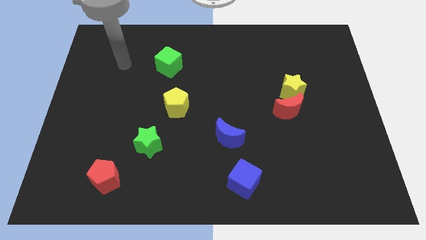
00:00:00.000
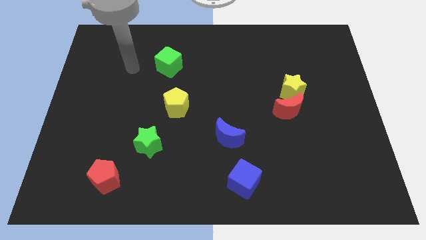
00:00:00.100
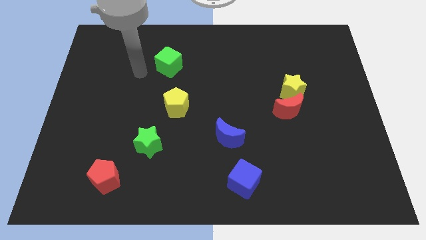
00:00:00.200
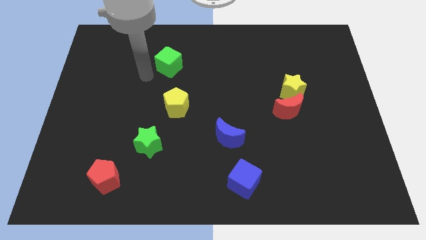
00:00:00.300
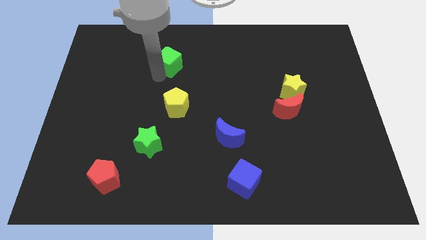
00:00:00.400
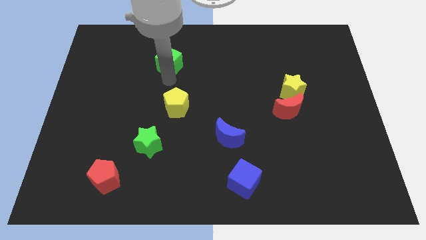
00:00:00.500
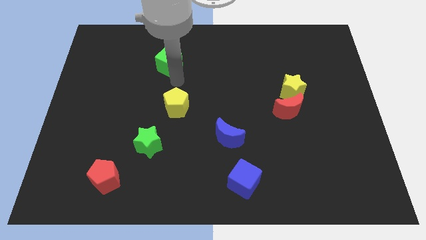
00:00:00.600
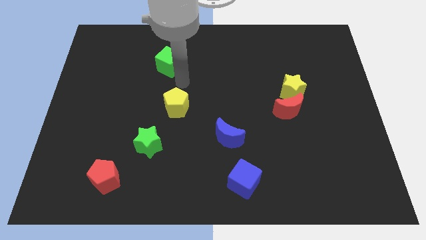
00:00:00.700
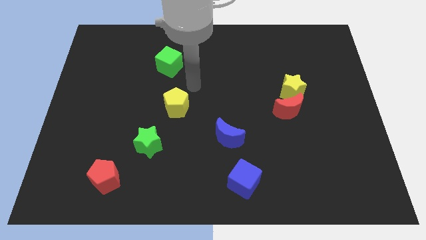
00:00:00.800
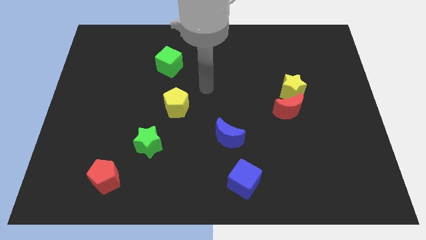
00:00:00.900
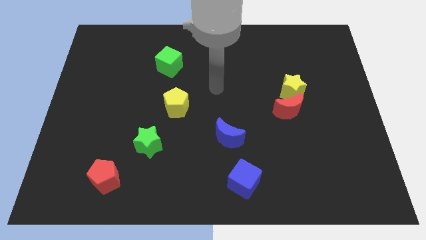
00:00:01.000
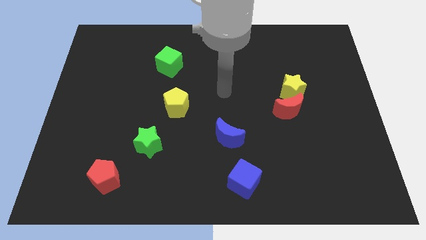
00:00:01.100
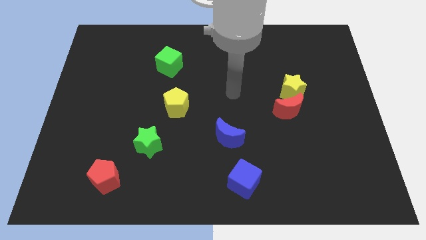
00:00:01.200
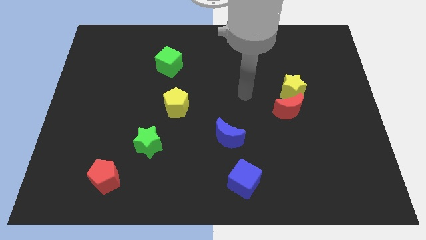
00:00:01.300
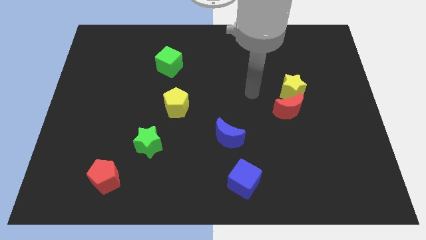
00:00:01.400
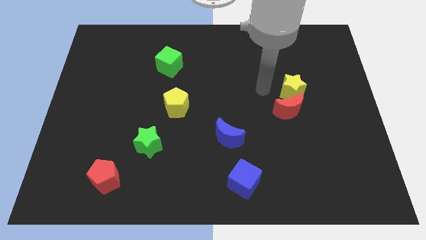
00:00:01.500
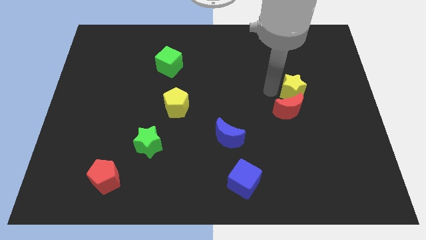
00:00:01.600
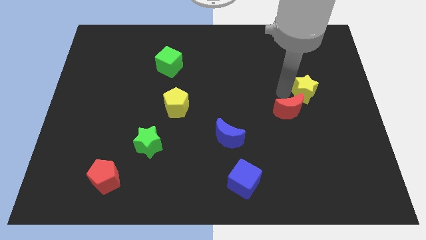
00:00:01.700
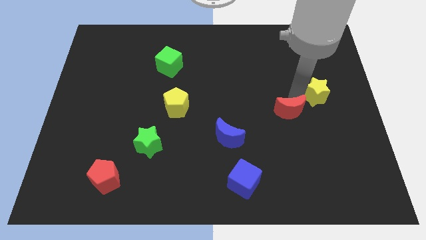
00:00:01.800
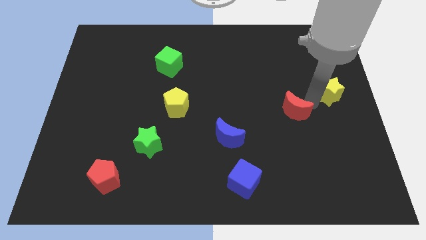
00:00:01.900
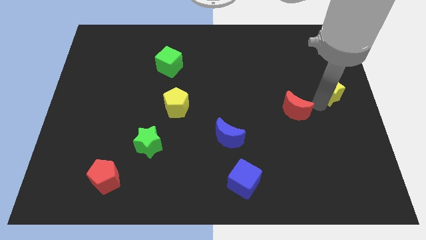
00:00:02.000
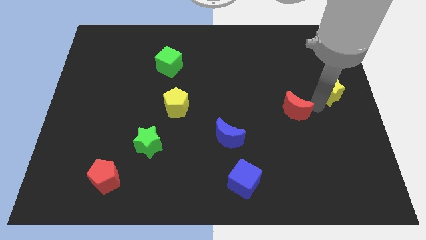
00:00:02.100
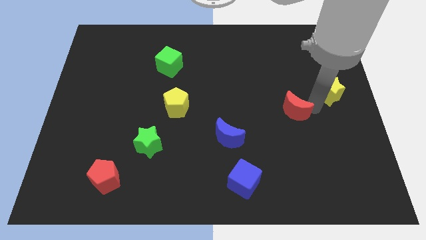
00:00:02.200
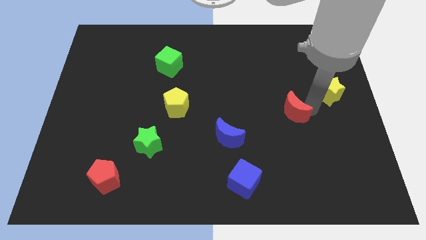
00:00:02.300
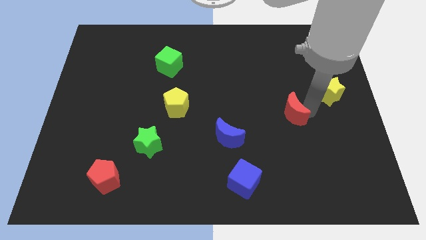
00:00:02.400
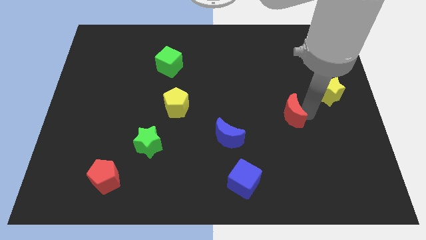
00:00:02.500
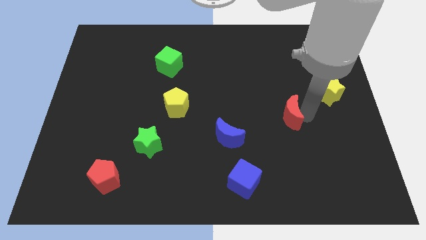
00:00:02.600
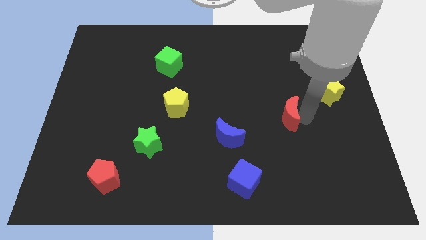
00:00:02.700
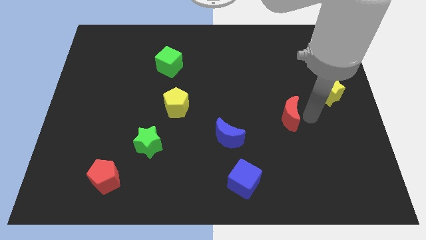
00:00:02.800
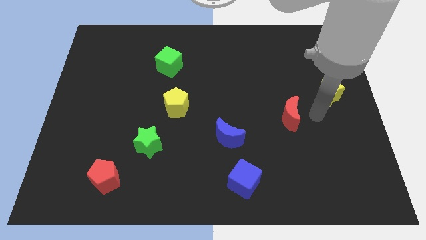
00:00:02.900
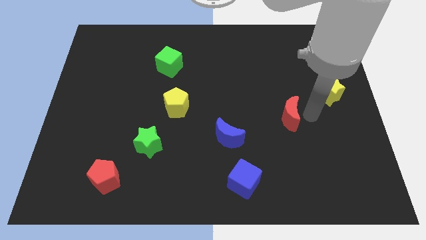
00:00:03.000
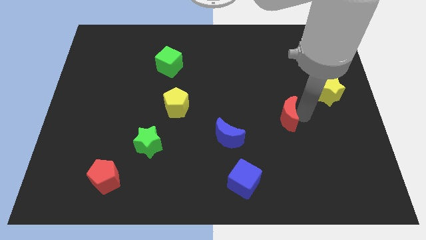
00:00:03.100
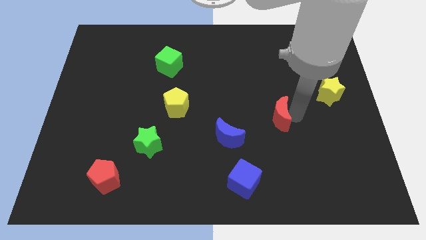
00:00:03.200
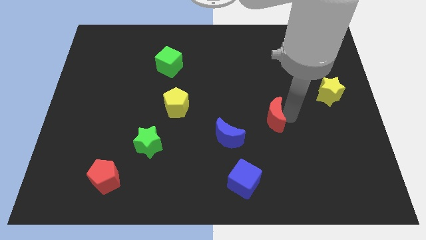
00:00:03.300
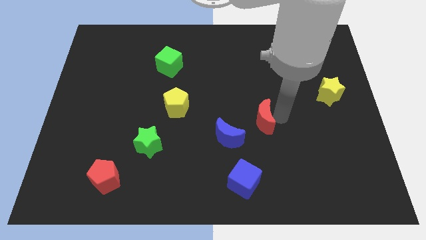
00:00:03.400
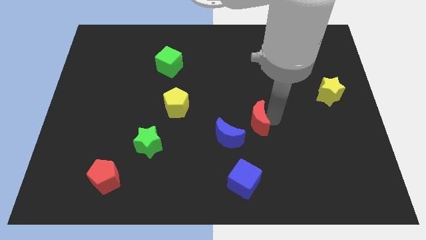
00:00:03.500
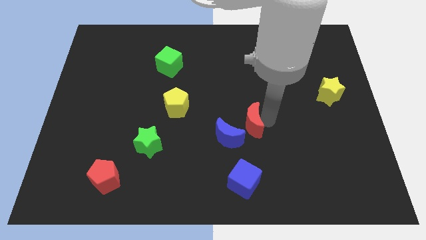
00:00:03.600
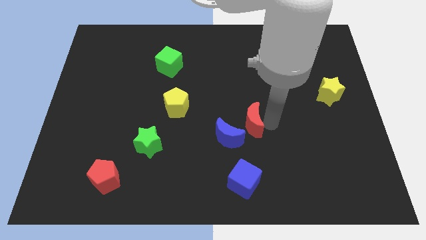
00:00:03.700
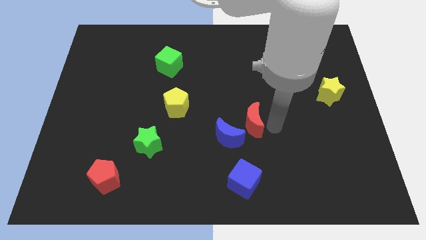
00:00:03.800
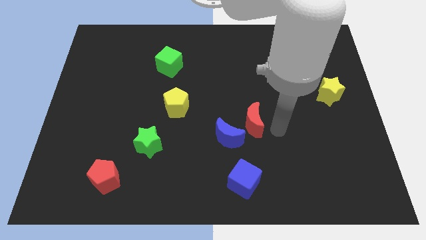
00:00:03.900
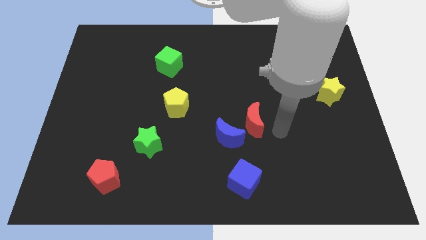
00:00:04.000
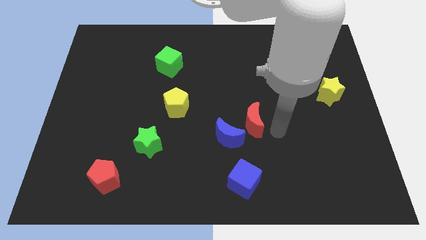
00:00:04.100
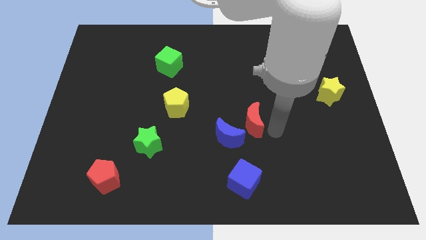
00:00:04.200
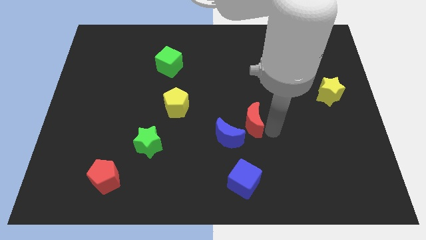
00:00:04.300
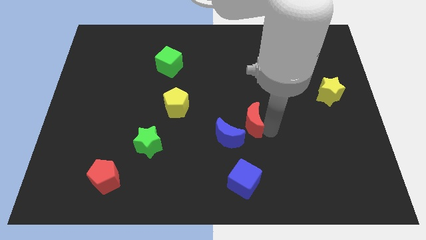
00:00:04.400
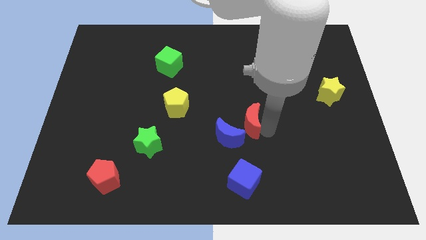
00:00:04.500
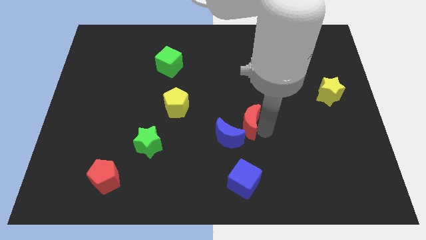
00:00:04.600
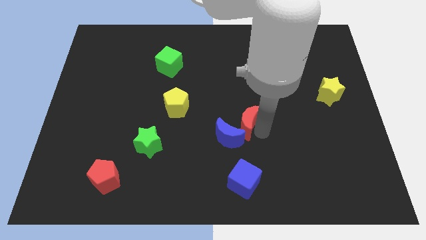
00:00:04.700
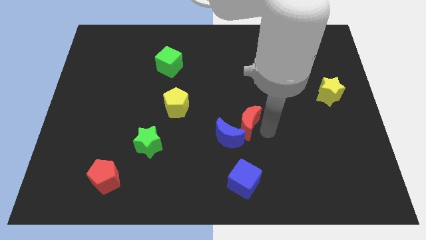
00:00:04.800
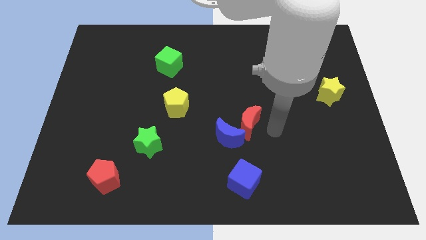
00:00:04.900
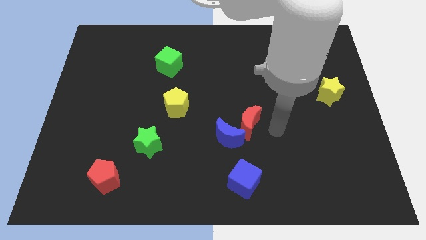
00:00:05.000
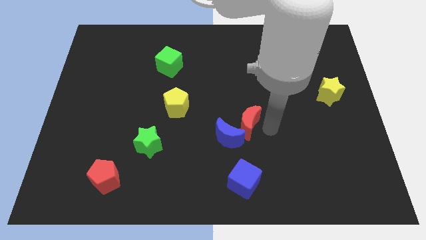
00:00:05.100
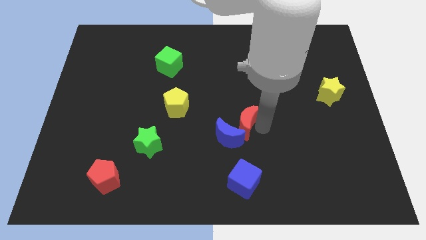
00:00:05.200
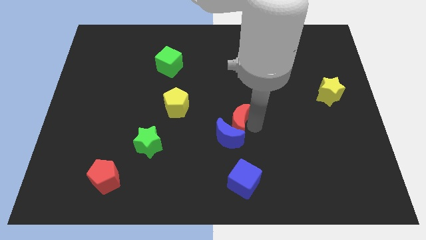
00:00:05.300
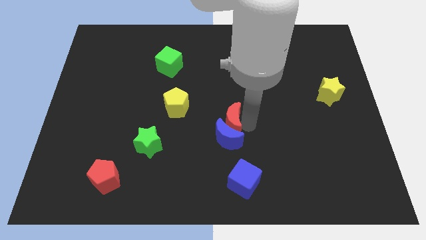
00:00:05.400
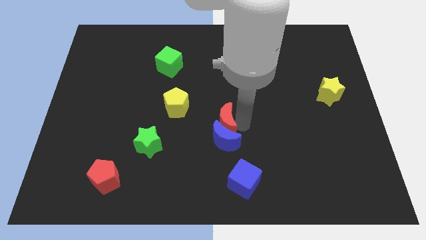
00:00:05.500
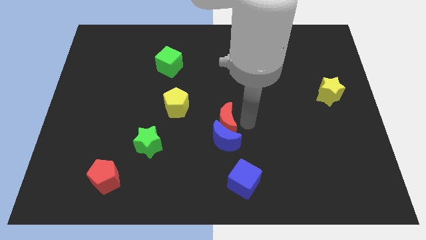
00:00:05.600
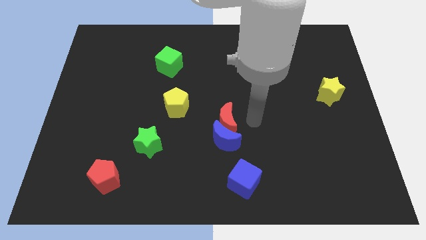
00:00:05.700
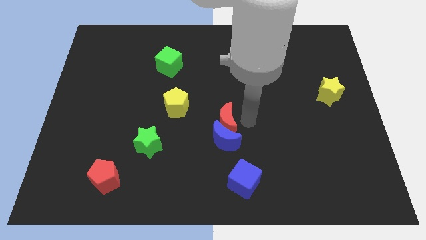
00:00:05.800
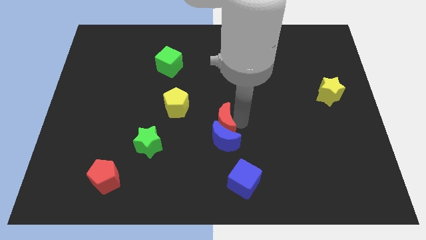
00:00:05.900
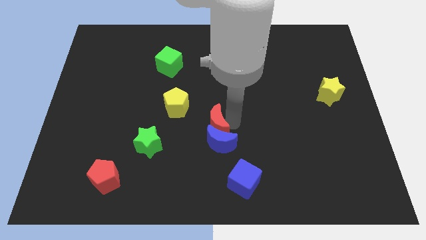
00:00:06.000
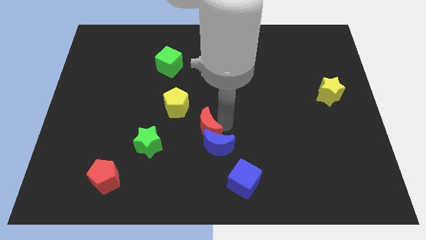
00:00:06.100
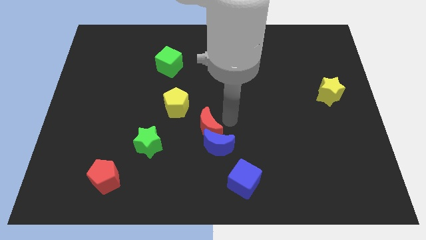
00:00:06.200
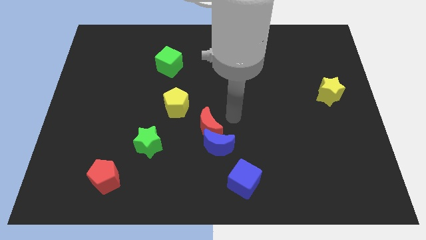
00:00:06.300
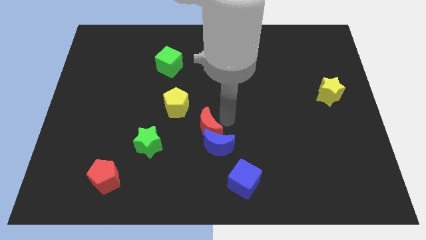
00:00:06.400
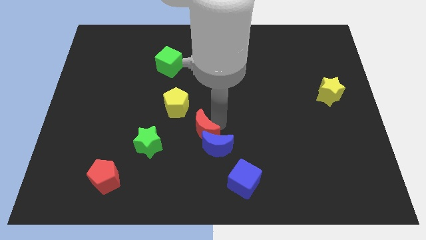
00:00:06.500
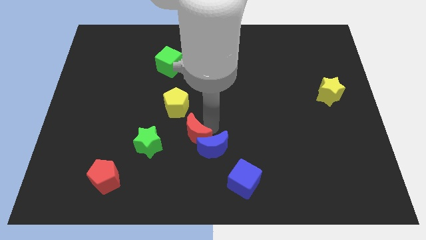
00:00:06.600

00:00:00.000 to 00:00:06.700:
slide the red moon to the left side of the blue moon
